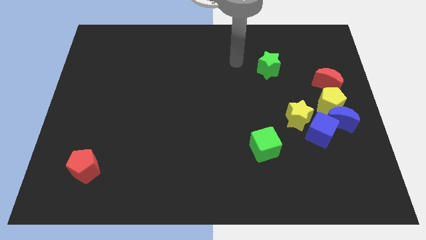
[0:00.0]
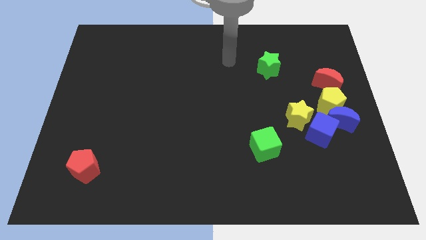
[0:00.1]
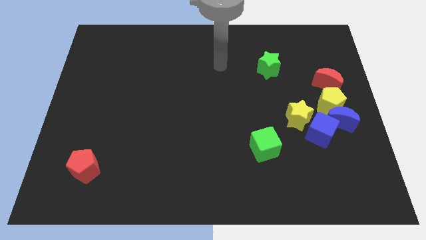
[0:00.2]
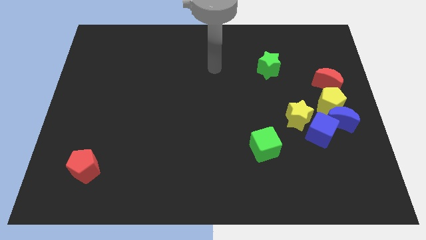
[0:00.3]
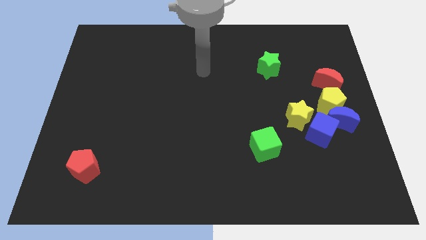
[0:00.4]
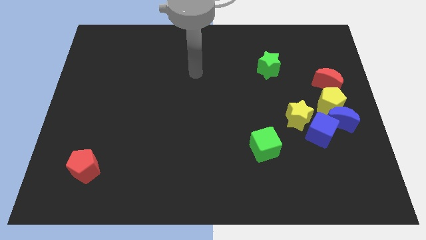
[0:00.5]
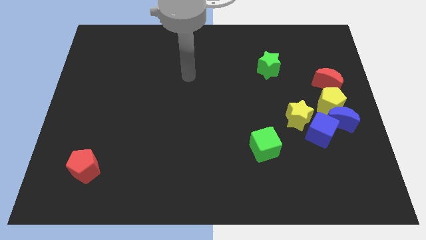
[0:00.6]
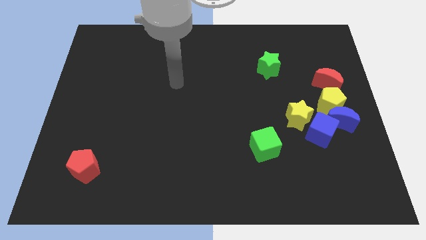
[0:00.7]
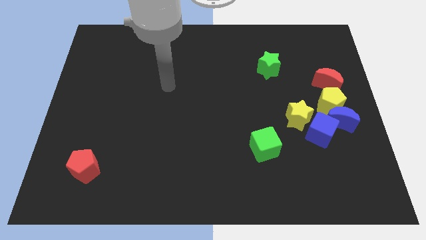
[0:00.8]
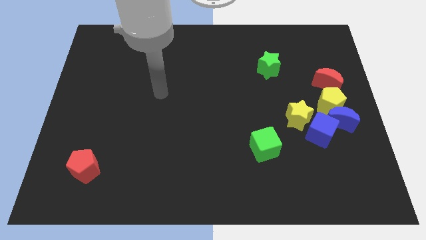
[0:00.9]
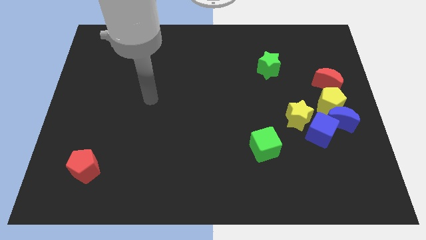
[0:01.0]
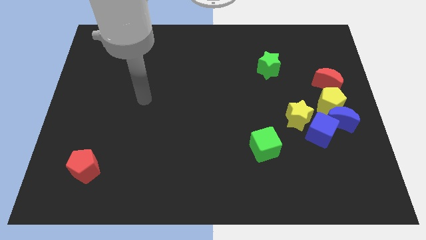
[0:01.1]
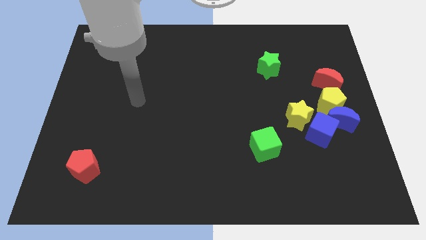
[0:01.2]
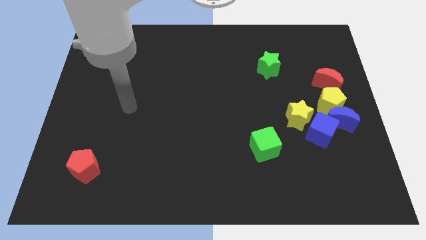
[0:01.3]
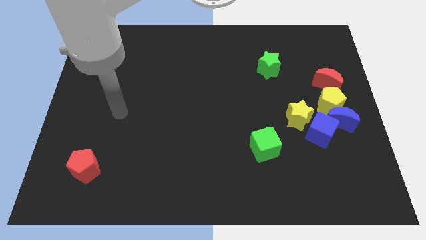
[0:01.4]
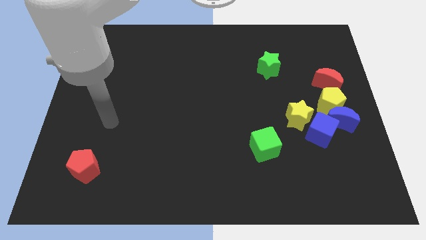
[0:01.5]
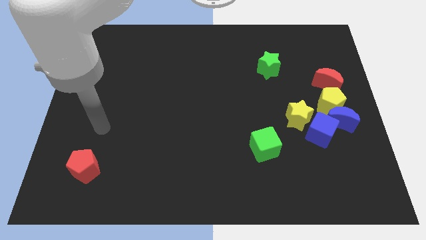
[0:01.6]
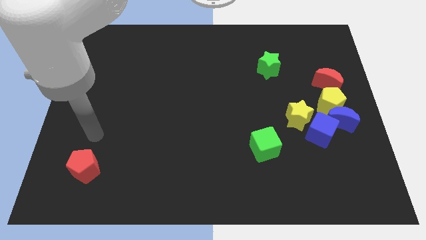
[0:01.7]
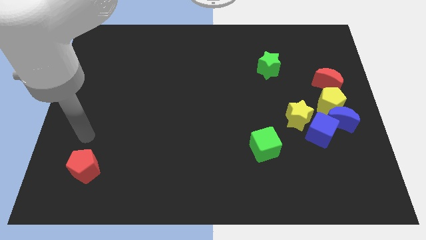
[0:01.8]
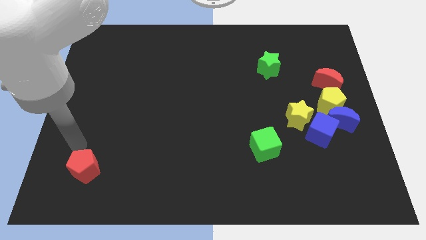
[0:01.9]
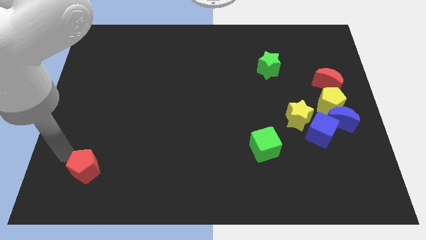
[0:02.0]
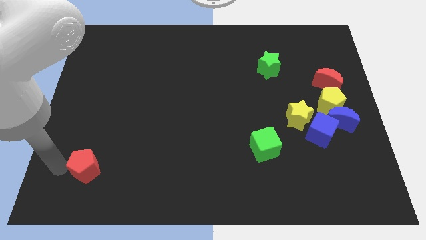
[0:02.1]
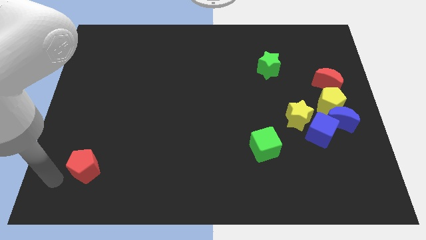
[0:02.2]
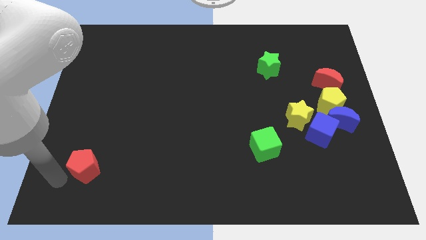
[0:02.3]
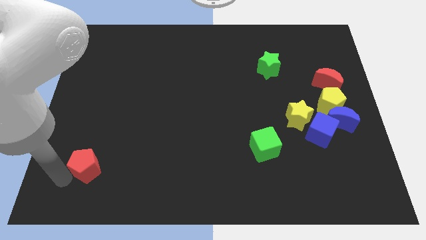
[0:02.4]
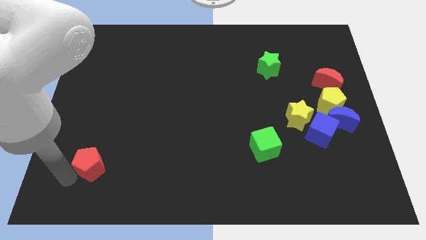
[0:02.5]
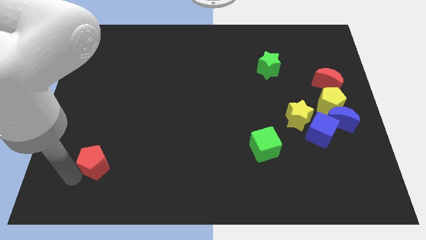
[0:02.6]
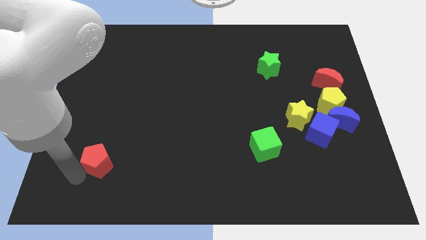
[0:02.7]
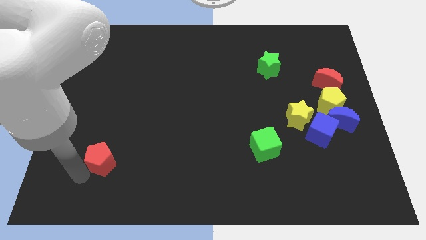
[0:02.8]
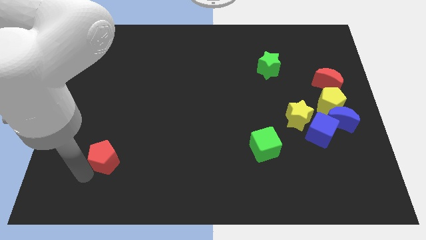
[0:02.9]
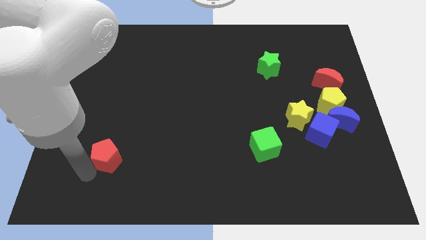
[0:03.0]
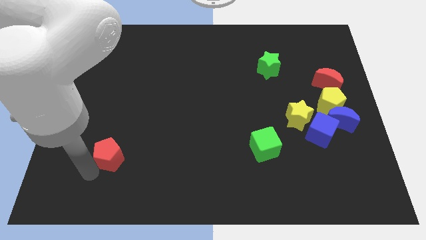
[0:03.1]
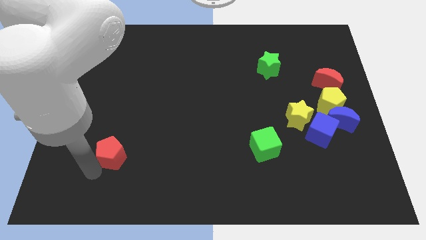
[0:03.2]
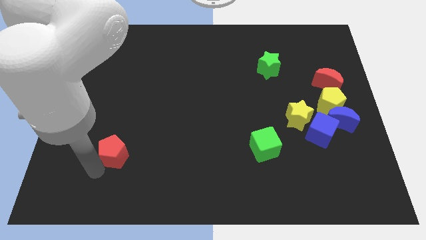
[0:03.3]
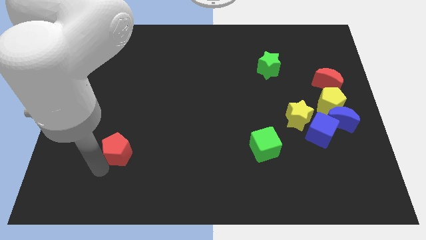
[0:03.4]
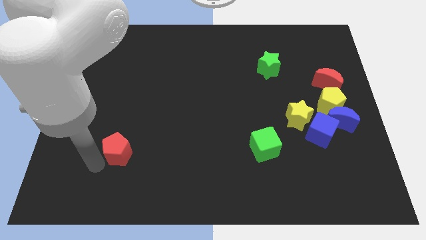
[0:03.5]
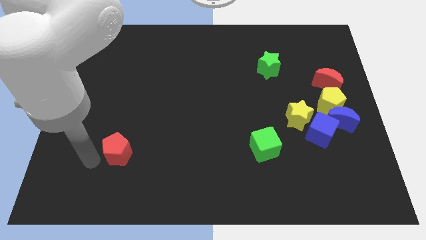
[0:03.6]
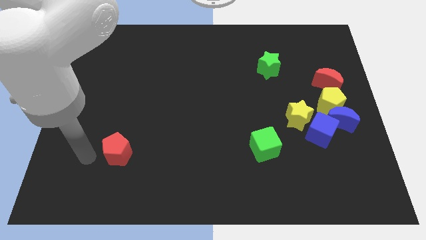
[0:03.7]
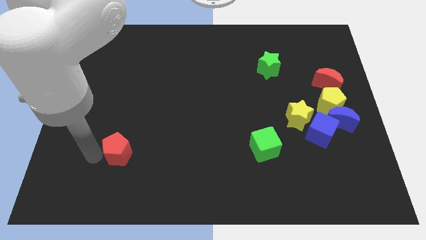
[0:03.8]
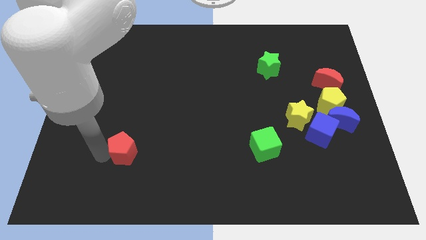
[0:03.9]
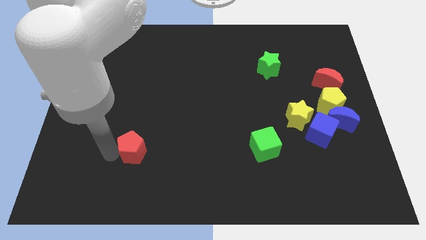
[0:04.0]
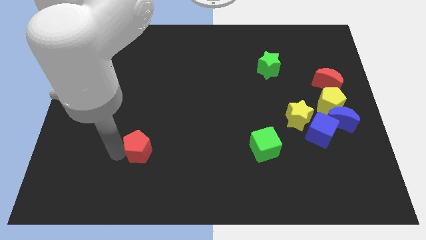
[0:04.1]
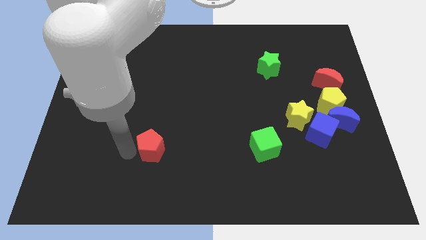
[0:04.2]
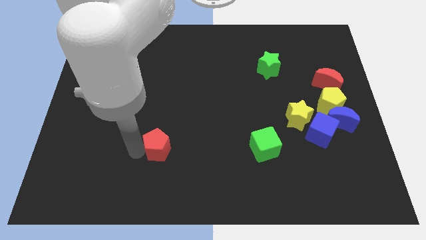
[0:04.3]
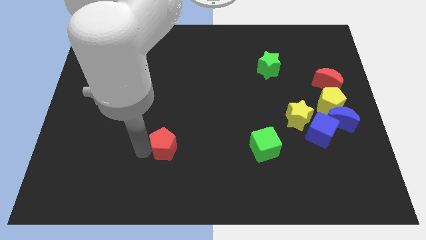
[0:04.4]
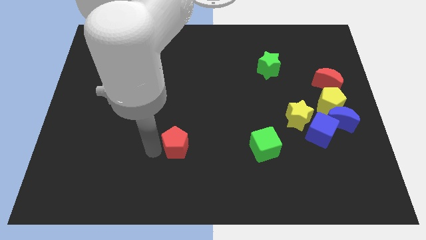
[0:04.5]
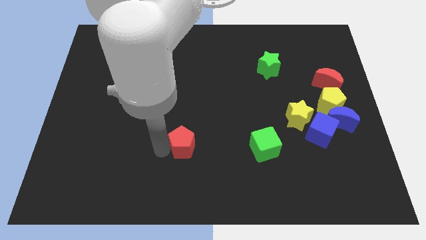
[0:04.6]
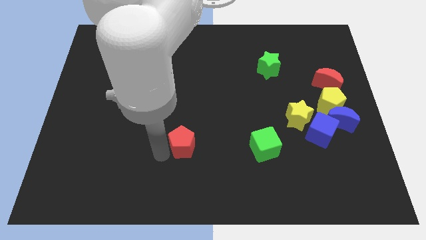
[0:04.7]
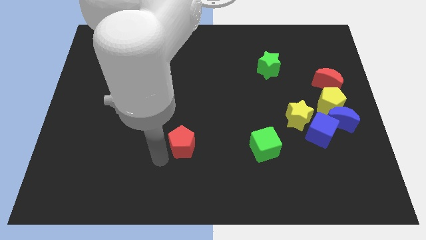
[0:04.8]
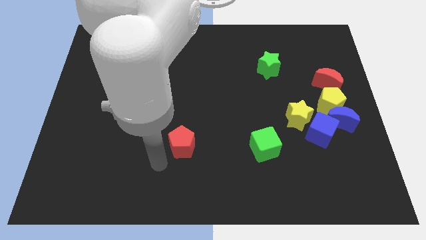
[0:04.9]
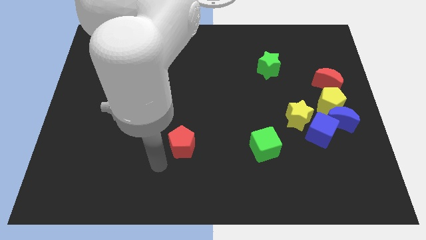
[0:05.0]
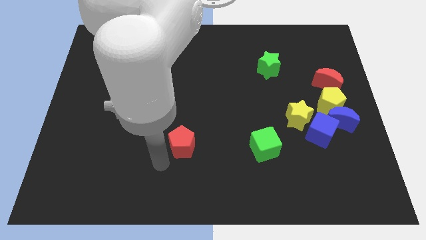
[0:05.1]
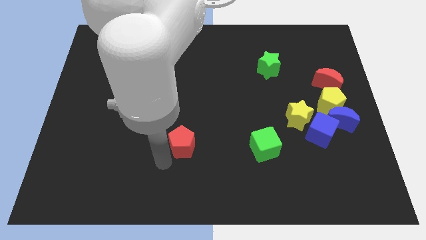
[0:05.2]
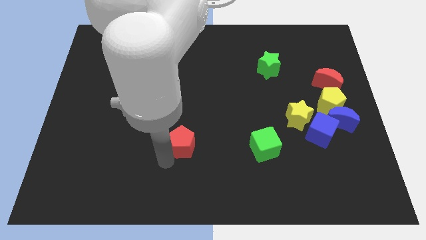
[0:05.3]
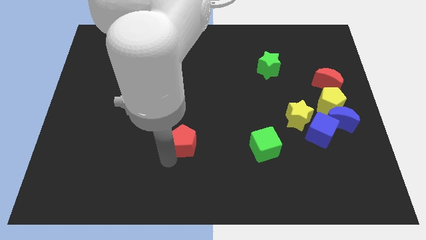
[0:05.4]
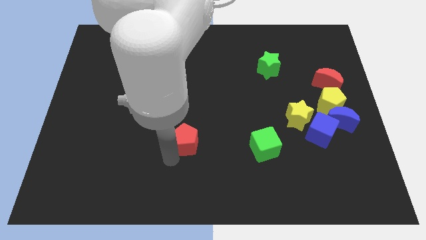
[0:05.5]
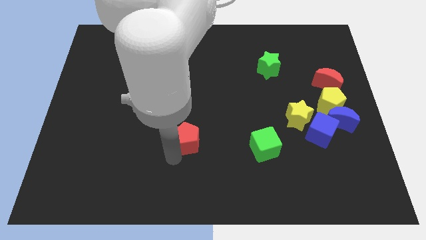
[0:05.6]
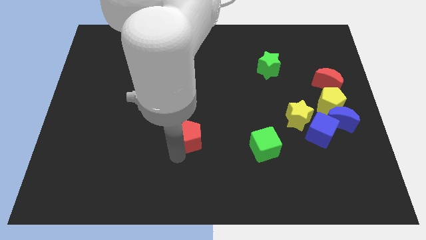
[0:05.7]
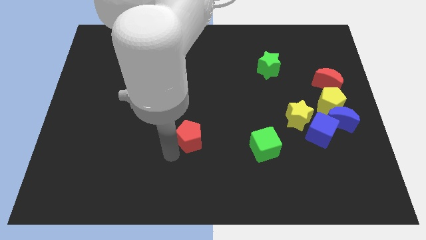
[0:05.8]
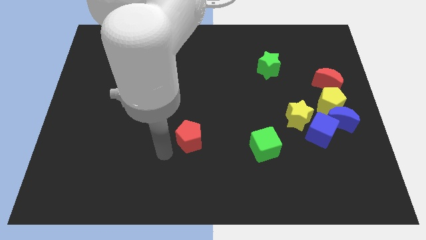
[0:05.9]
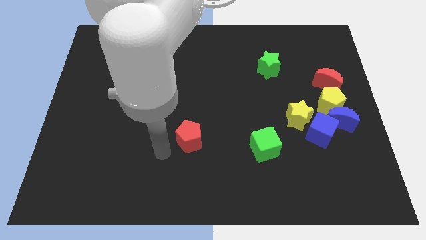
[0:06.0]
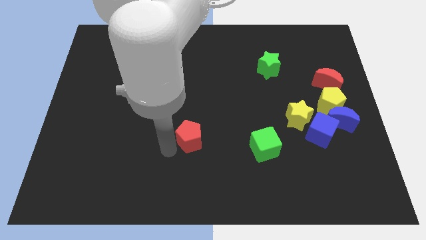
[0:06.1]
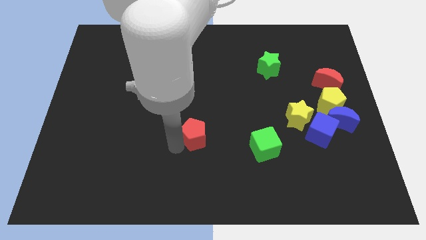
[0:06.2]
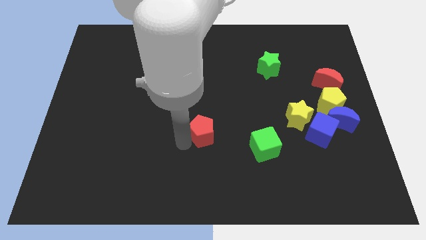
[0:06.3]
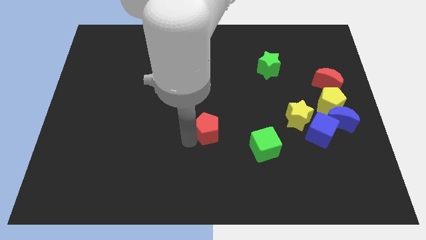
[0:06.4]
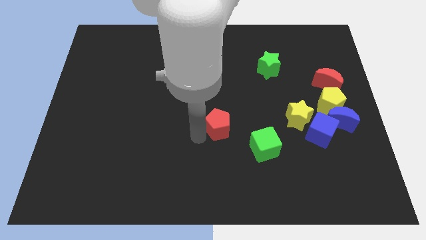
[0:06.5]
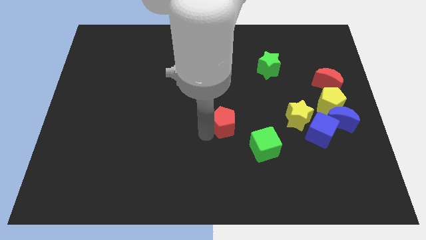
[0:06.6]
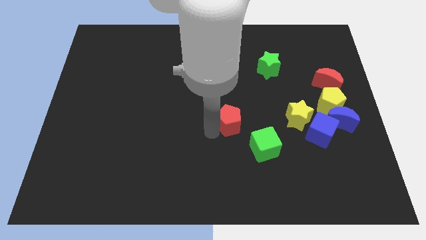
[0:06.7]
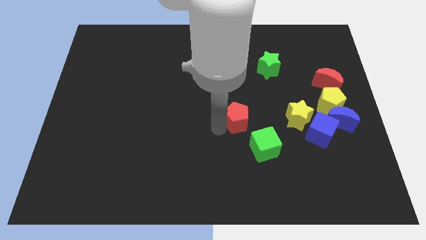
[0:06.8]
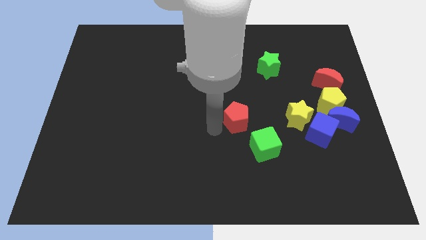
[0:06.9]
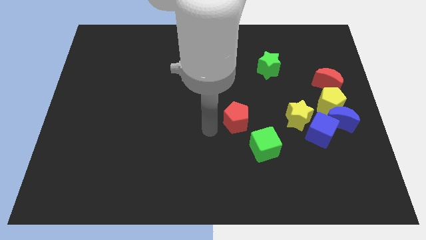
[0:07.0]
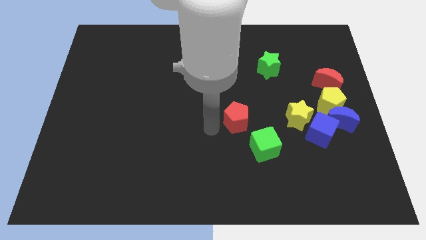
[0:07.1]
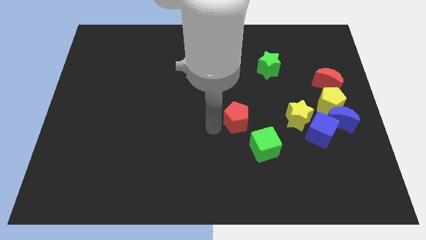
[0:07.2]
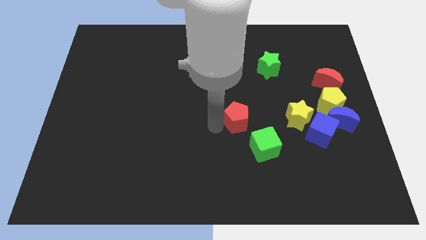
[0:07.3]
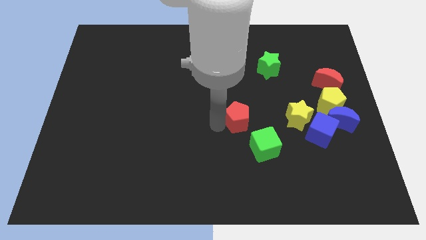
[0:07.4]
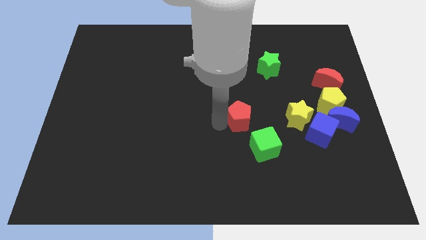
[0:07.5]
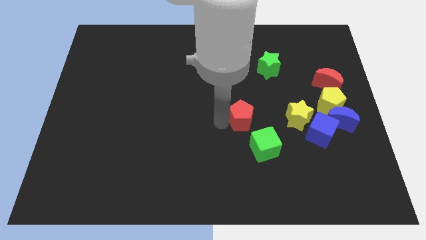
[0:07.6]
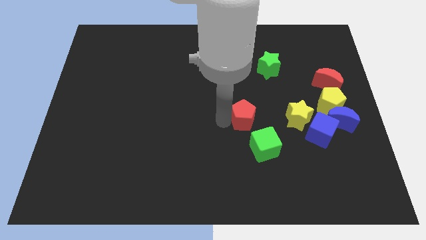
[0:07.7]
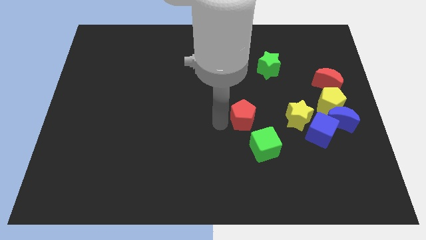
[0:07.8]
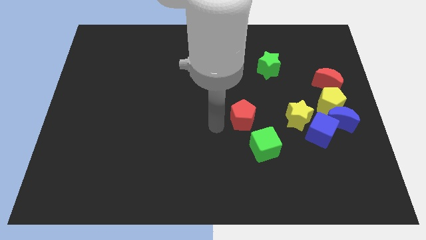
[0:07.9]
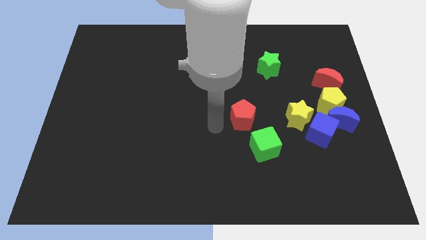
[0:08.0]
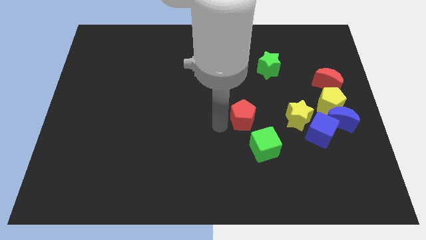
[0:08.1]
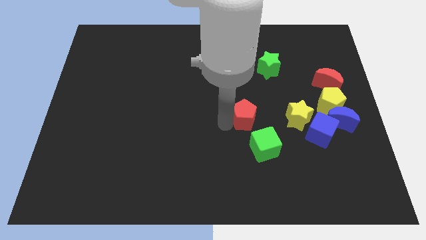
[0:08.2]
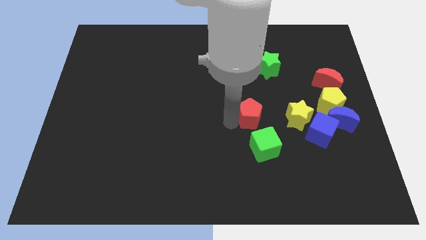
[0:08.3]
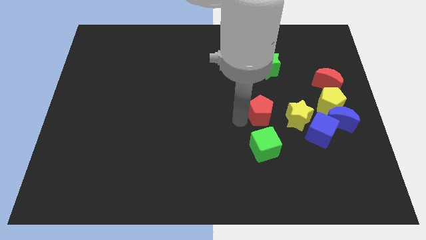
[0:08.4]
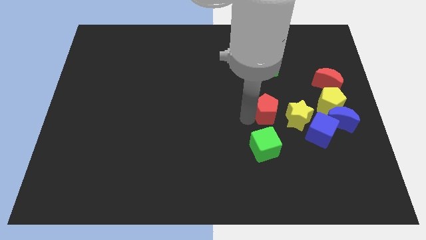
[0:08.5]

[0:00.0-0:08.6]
push the red pentagon just left of the yellow pentagon
